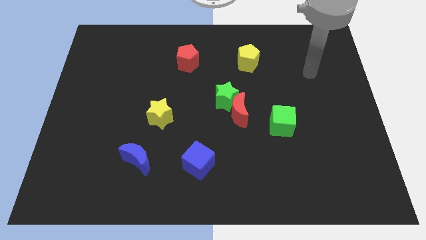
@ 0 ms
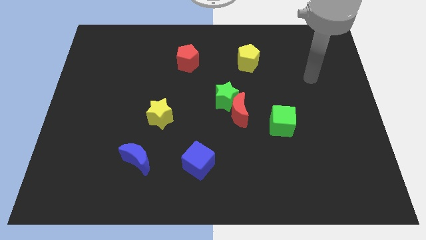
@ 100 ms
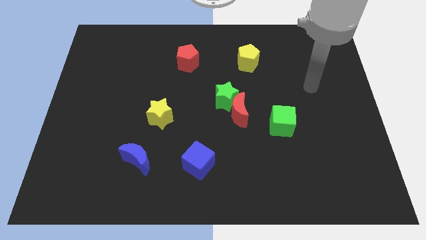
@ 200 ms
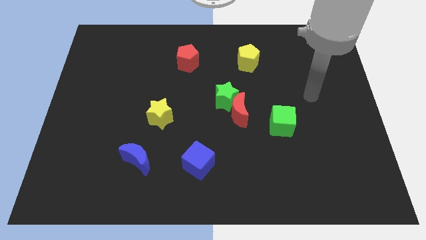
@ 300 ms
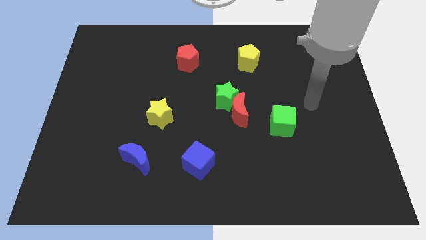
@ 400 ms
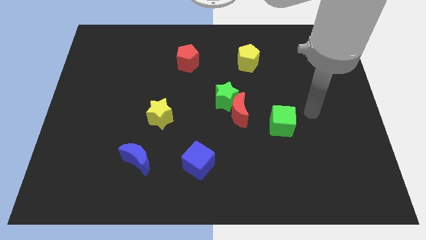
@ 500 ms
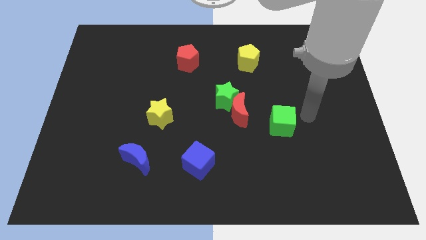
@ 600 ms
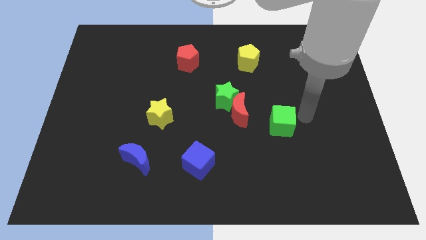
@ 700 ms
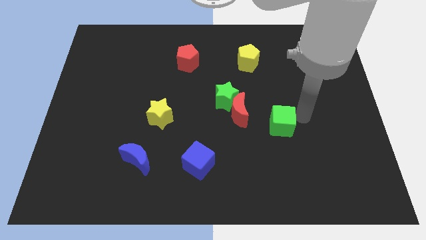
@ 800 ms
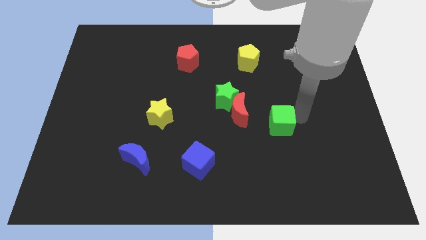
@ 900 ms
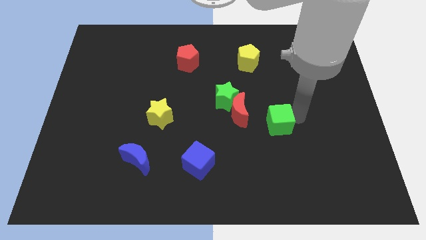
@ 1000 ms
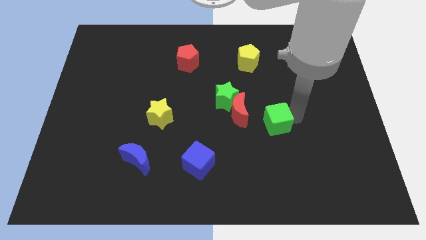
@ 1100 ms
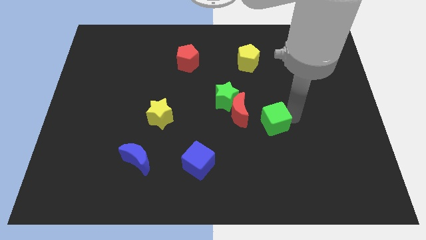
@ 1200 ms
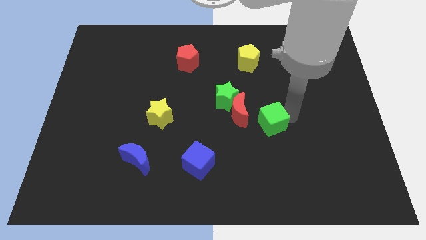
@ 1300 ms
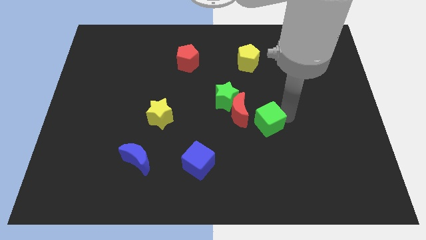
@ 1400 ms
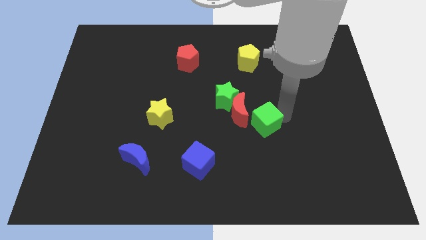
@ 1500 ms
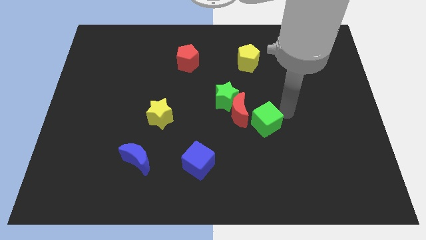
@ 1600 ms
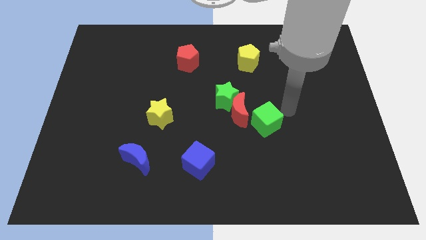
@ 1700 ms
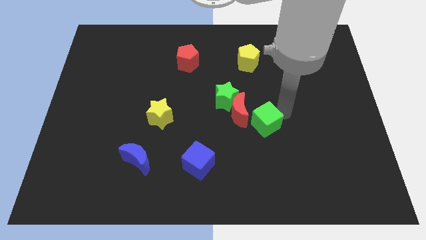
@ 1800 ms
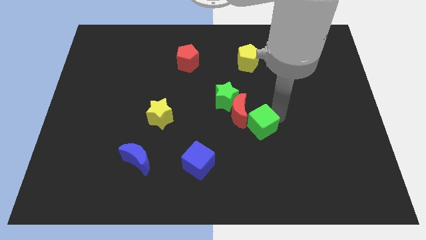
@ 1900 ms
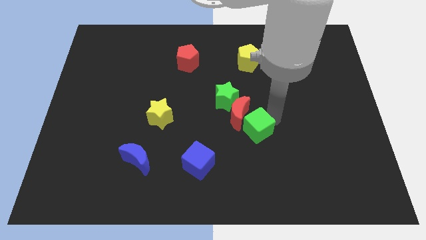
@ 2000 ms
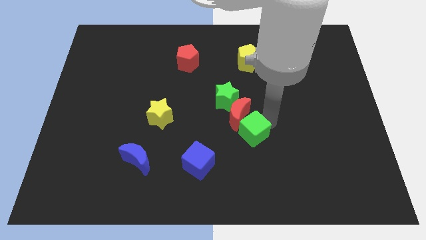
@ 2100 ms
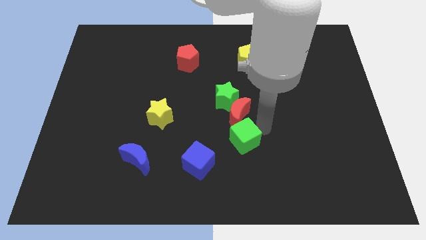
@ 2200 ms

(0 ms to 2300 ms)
slightly slide the green cube to the left

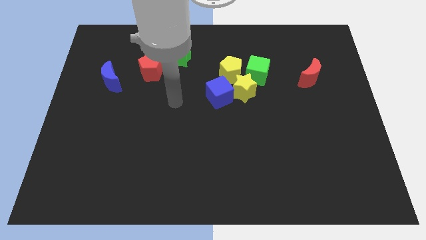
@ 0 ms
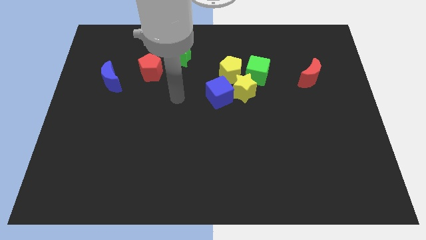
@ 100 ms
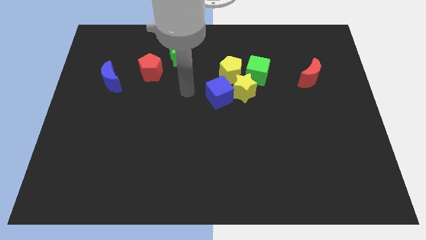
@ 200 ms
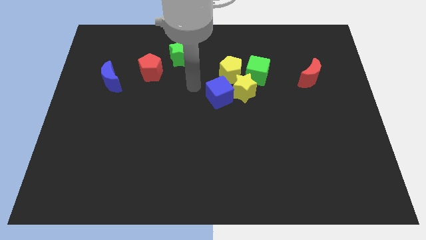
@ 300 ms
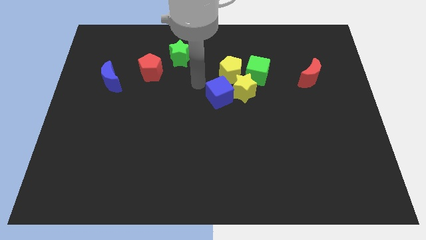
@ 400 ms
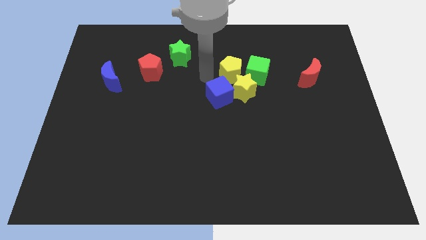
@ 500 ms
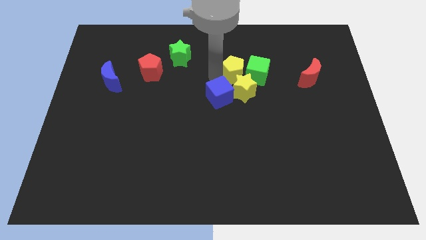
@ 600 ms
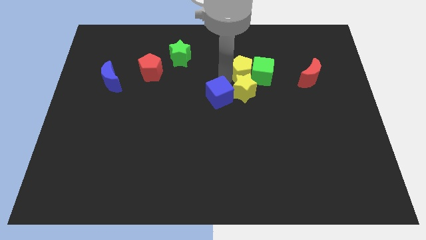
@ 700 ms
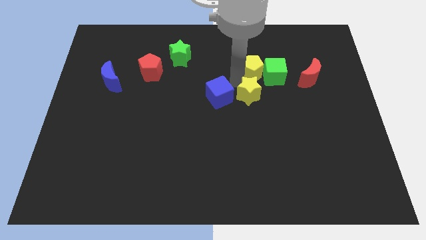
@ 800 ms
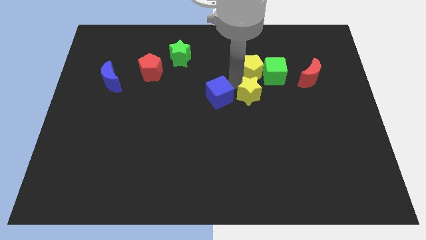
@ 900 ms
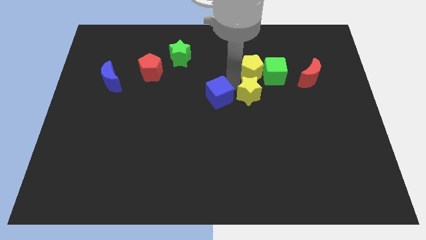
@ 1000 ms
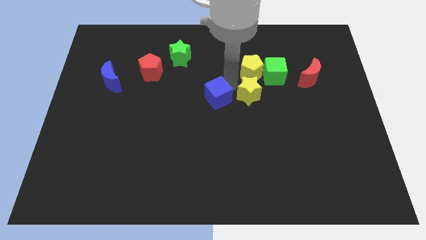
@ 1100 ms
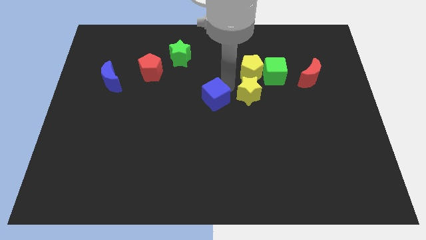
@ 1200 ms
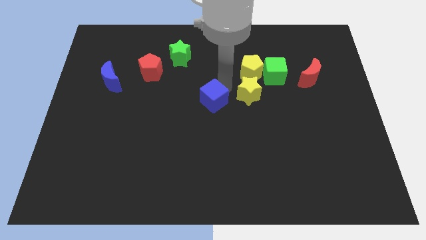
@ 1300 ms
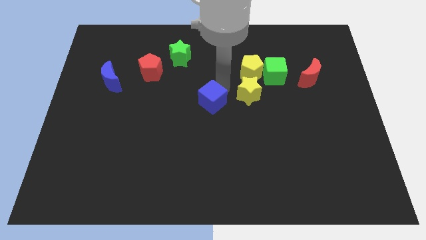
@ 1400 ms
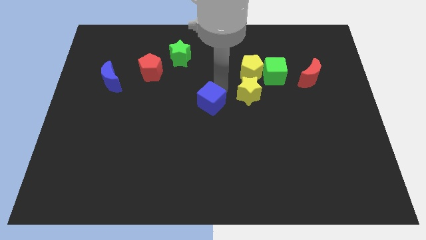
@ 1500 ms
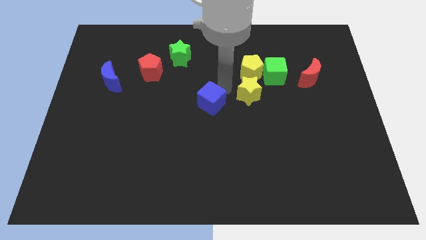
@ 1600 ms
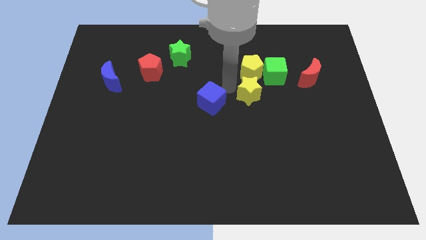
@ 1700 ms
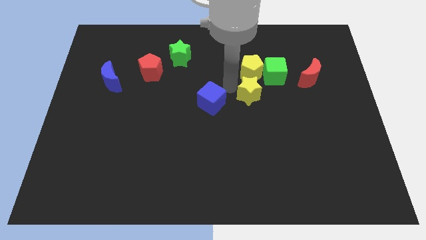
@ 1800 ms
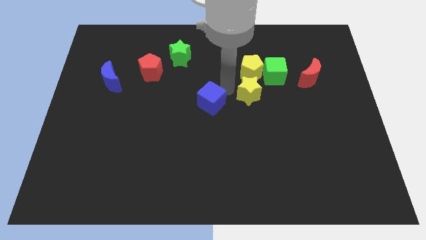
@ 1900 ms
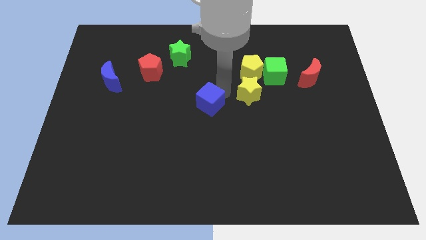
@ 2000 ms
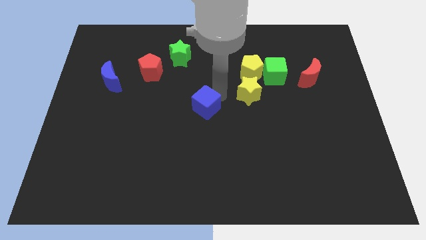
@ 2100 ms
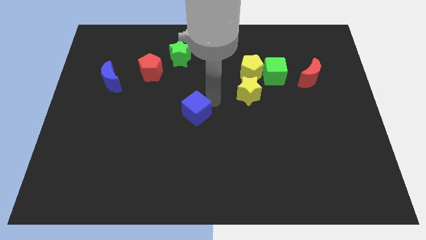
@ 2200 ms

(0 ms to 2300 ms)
push the blue cube a little downwards and left

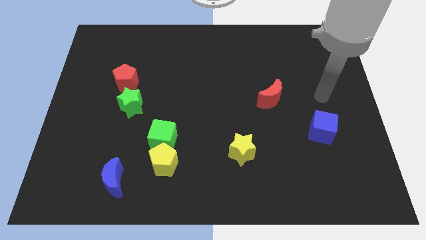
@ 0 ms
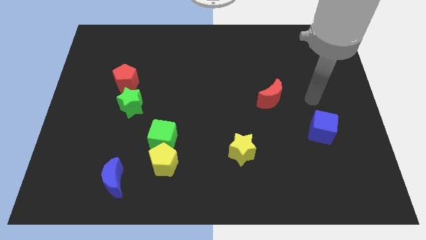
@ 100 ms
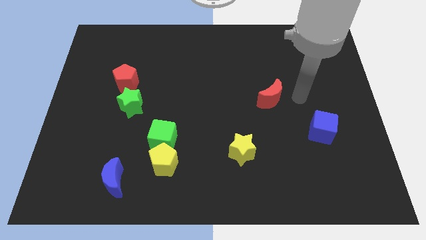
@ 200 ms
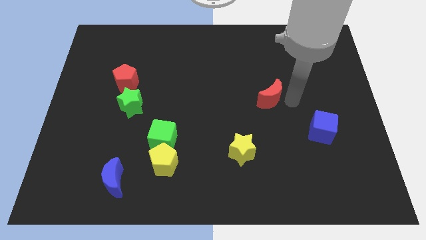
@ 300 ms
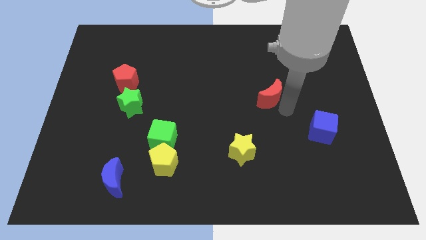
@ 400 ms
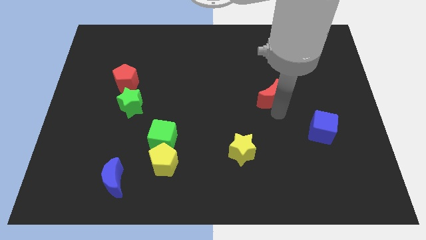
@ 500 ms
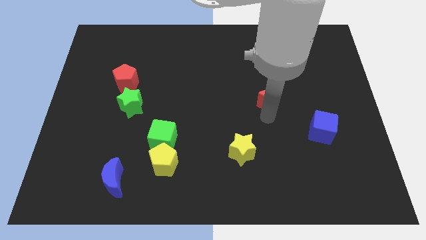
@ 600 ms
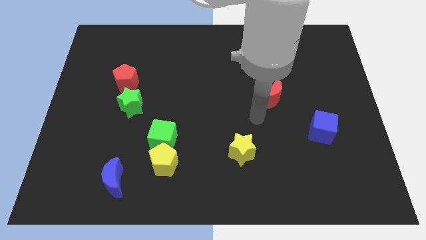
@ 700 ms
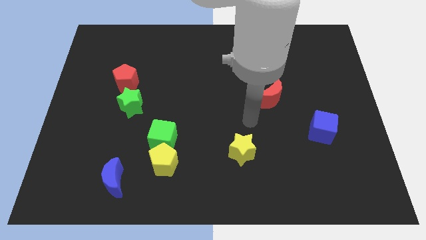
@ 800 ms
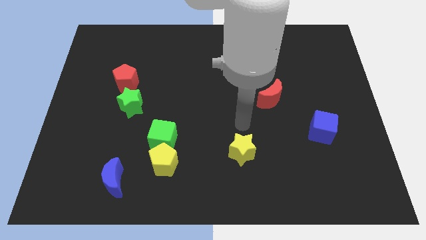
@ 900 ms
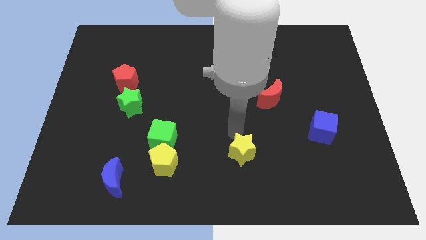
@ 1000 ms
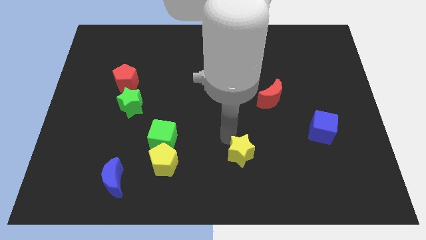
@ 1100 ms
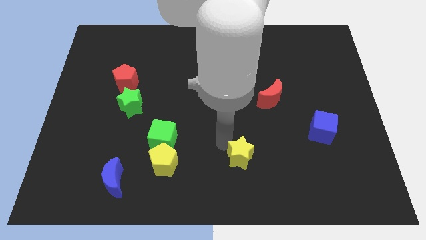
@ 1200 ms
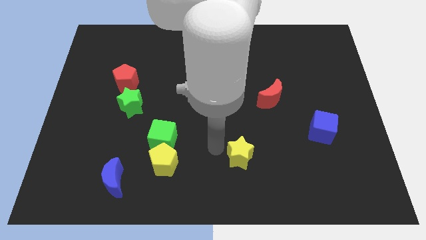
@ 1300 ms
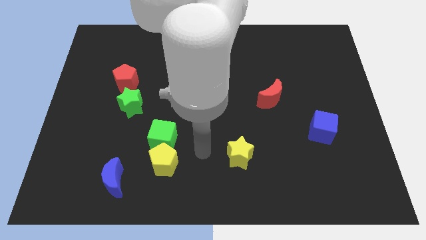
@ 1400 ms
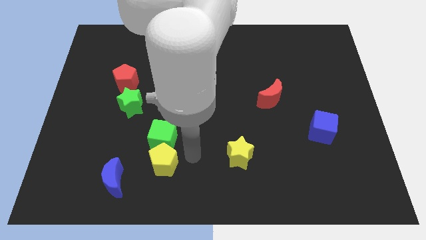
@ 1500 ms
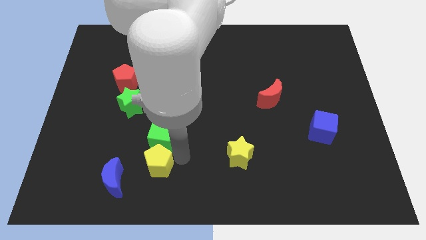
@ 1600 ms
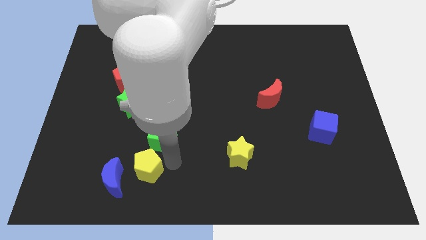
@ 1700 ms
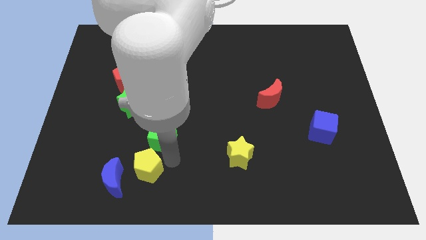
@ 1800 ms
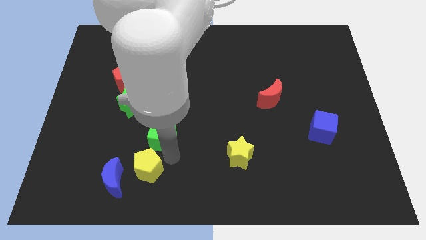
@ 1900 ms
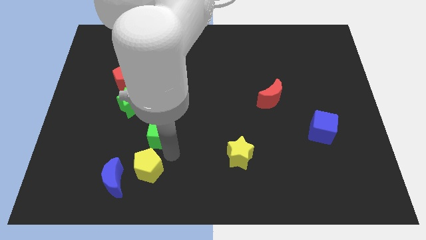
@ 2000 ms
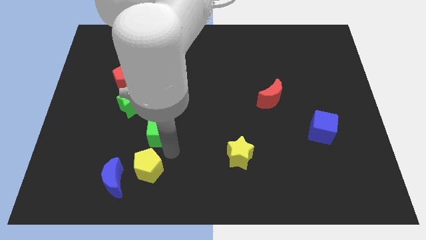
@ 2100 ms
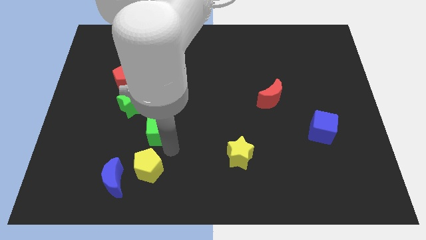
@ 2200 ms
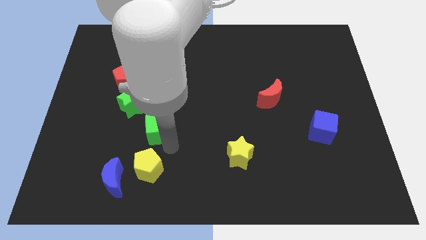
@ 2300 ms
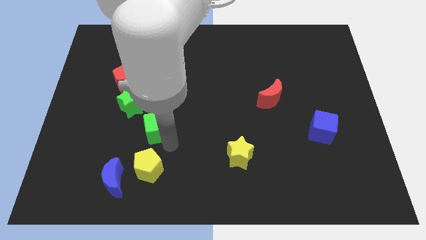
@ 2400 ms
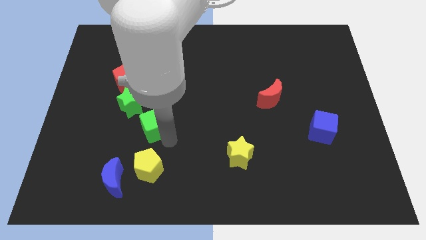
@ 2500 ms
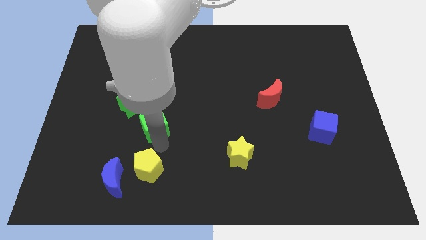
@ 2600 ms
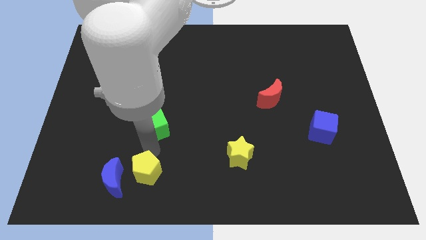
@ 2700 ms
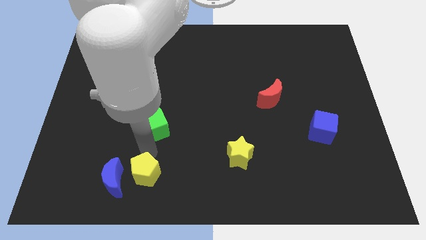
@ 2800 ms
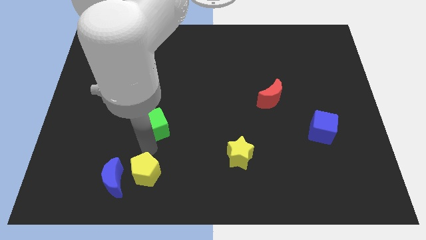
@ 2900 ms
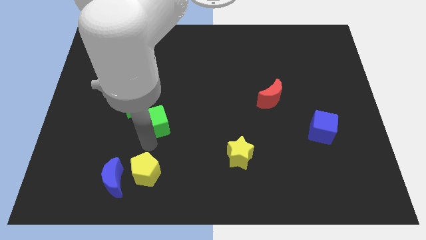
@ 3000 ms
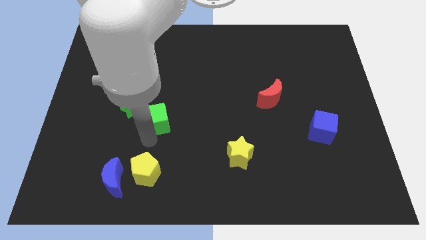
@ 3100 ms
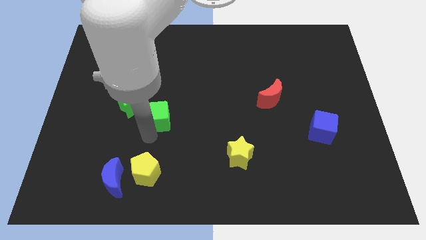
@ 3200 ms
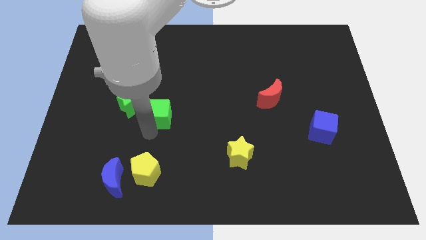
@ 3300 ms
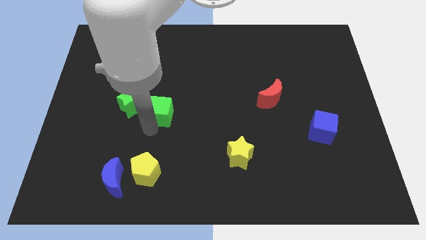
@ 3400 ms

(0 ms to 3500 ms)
slide the green cube somewhat up
